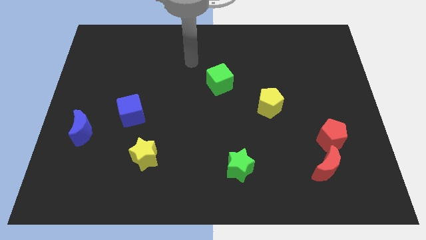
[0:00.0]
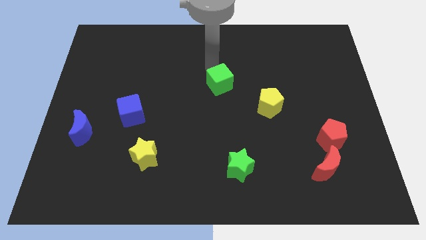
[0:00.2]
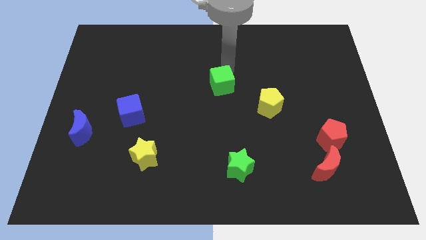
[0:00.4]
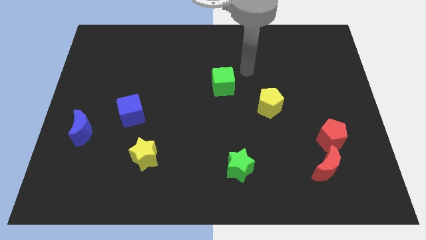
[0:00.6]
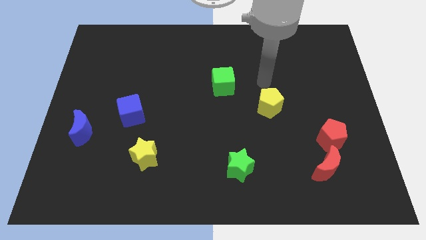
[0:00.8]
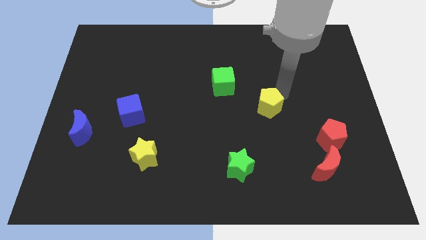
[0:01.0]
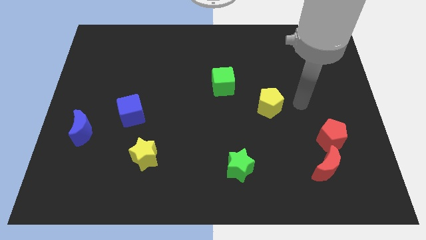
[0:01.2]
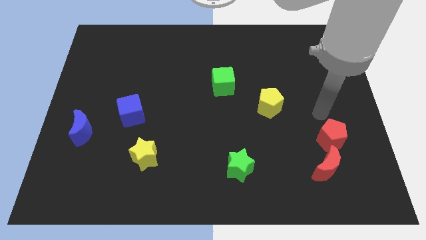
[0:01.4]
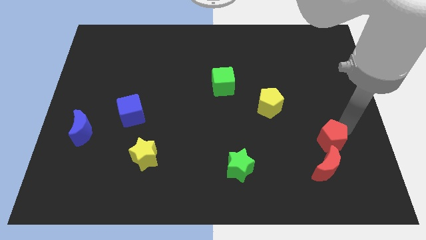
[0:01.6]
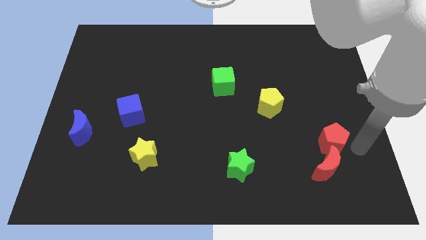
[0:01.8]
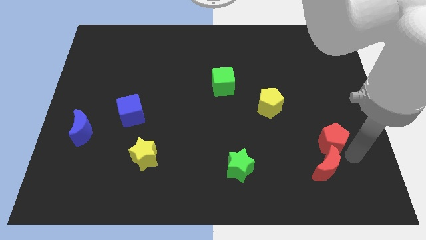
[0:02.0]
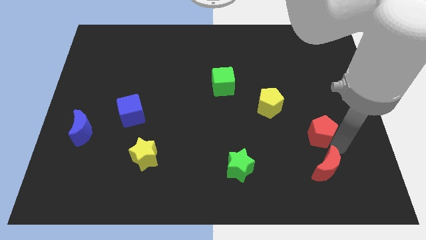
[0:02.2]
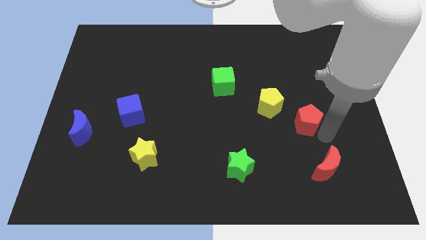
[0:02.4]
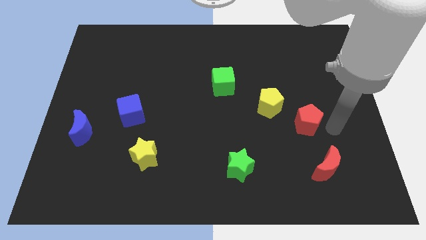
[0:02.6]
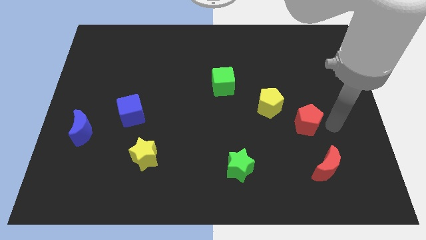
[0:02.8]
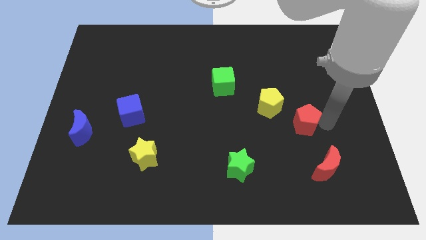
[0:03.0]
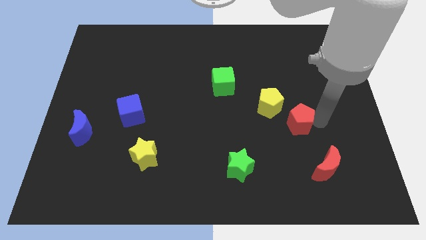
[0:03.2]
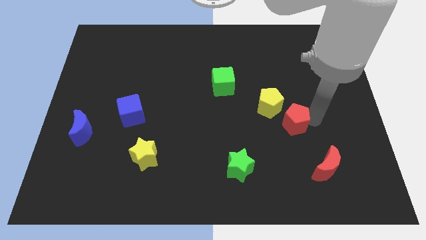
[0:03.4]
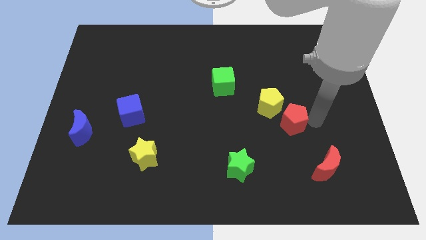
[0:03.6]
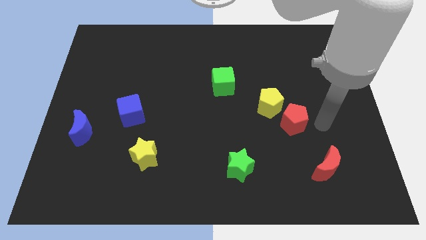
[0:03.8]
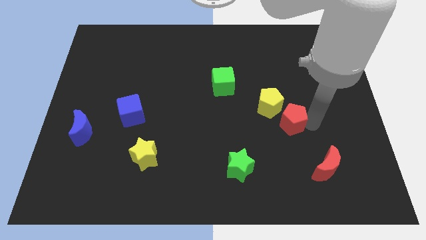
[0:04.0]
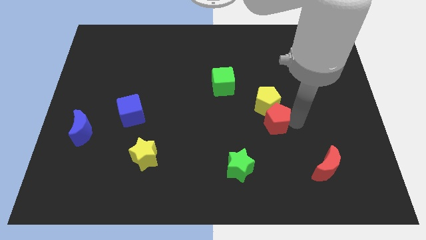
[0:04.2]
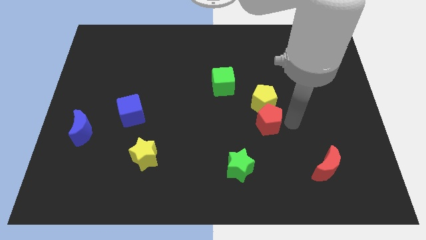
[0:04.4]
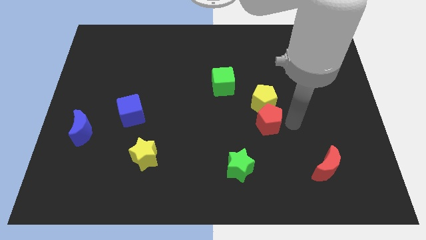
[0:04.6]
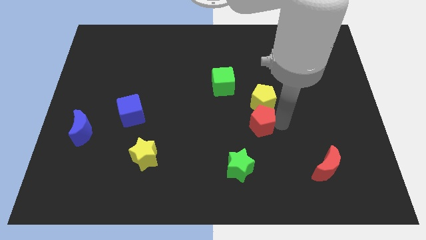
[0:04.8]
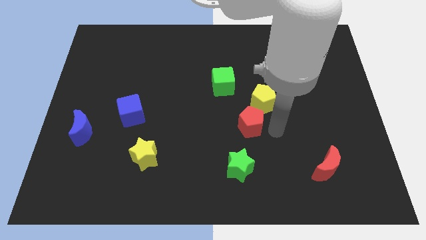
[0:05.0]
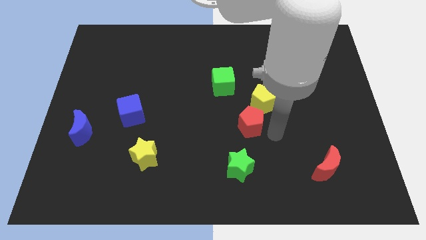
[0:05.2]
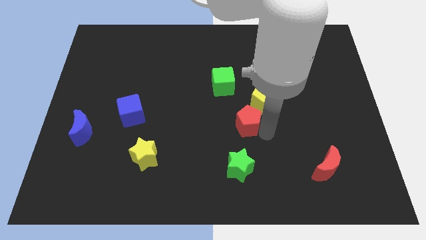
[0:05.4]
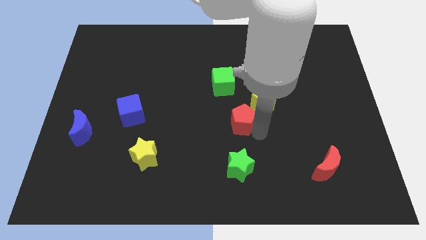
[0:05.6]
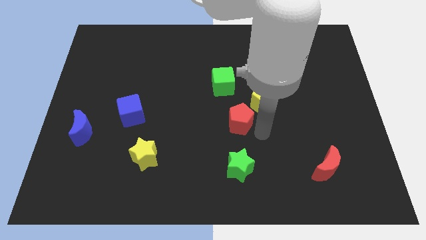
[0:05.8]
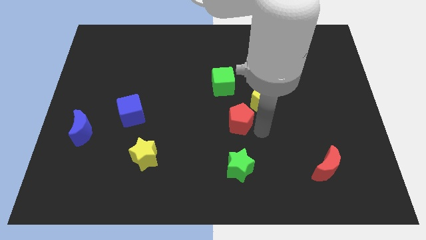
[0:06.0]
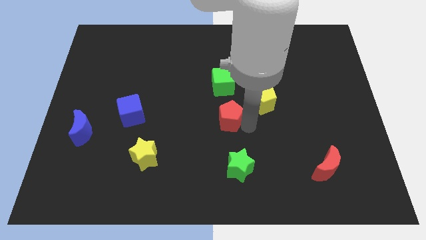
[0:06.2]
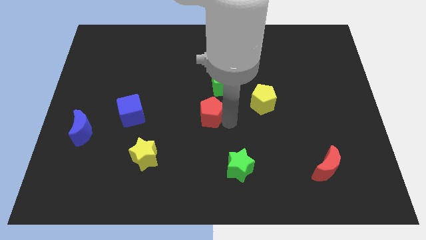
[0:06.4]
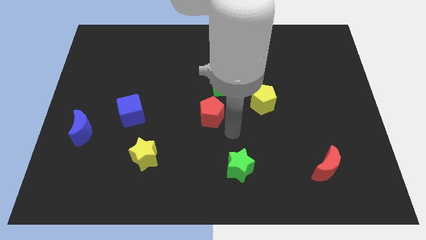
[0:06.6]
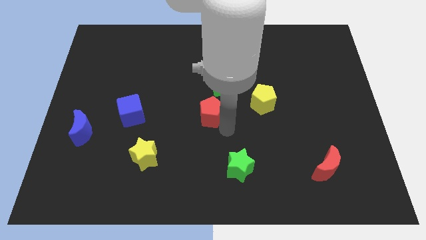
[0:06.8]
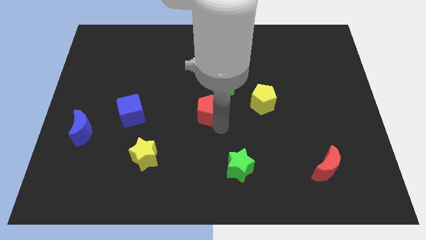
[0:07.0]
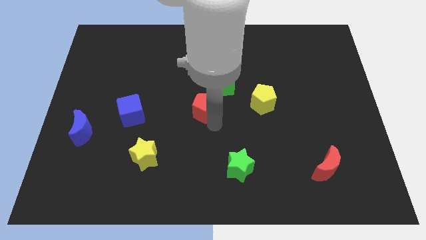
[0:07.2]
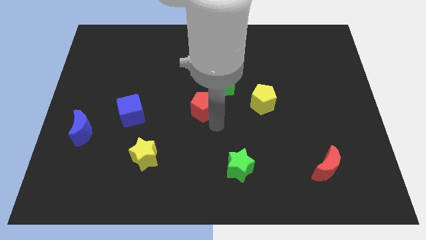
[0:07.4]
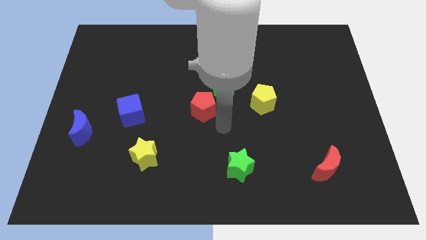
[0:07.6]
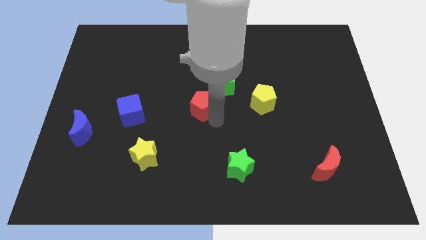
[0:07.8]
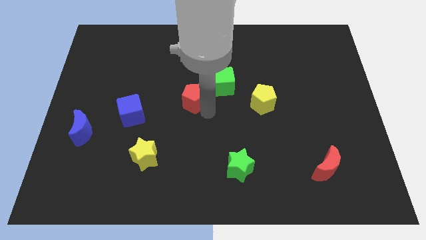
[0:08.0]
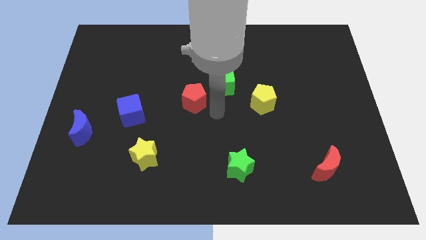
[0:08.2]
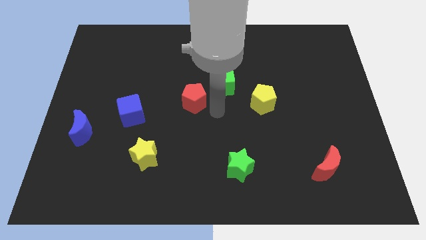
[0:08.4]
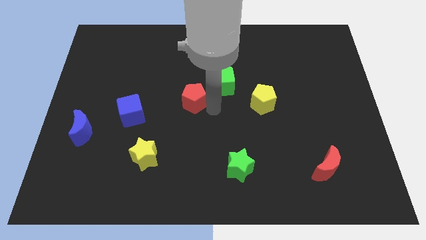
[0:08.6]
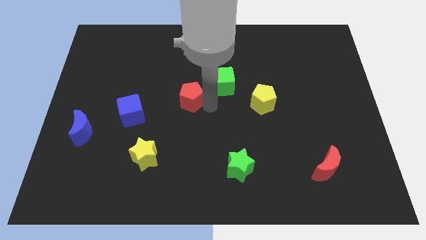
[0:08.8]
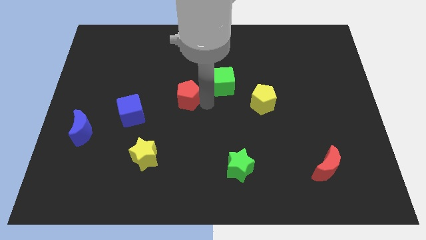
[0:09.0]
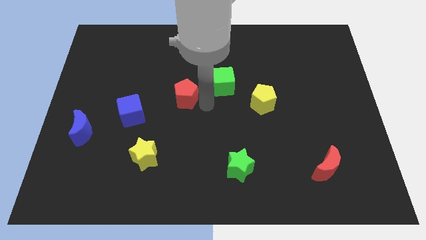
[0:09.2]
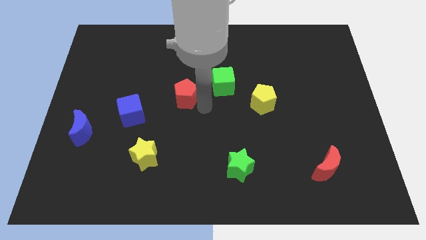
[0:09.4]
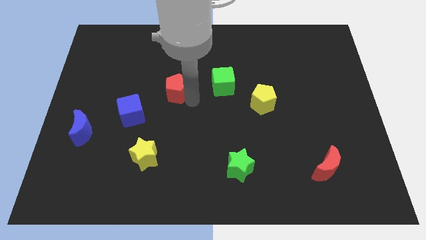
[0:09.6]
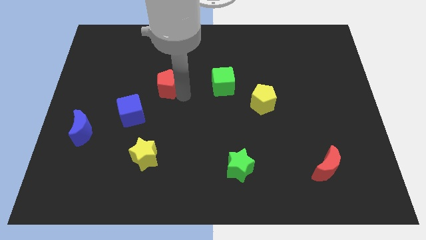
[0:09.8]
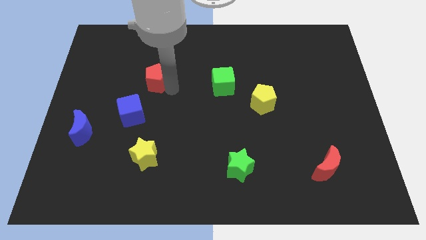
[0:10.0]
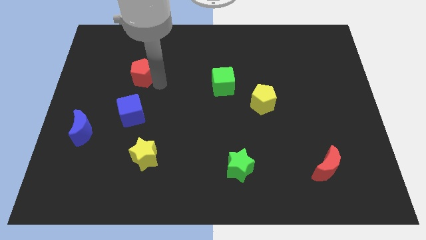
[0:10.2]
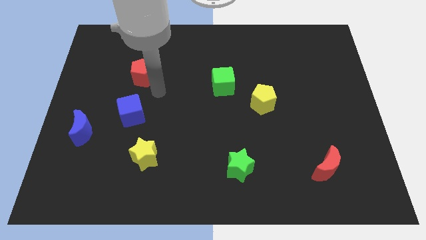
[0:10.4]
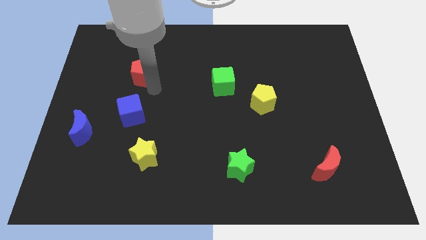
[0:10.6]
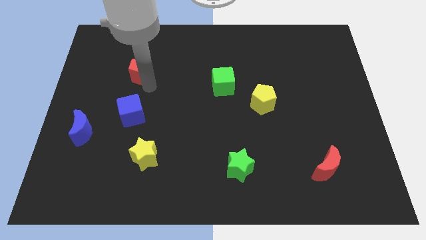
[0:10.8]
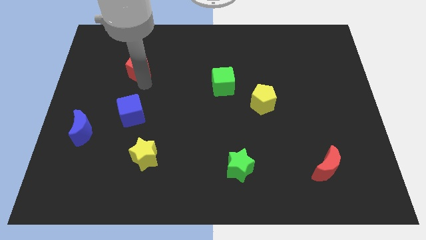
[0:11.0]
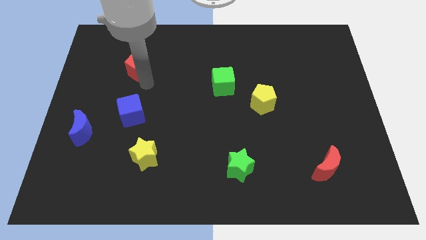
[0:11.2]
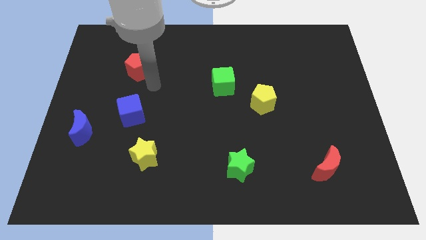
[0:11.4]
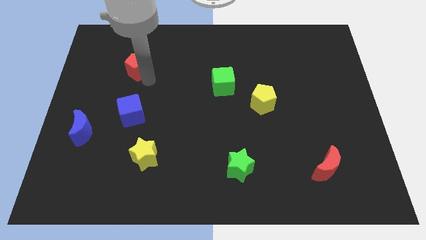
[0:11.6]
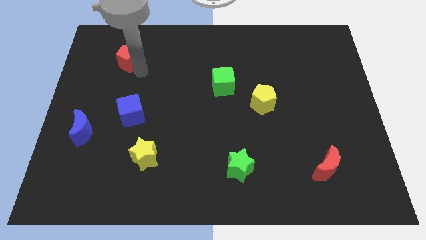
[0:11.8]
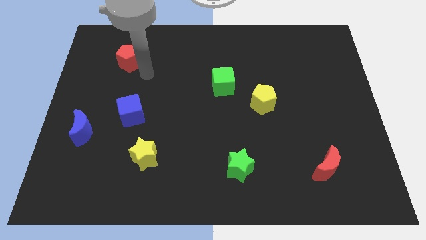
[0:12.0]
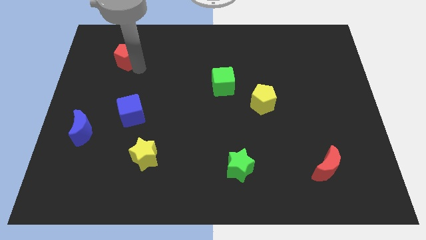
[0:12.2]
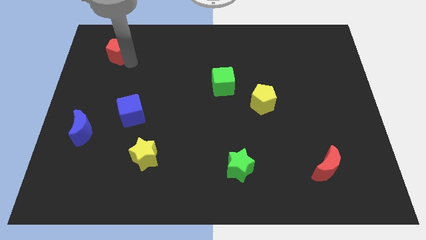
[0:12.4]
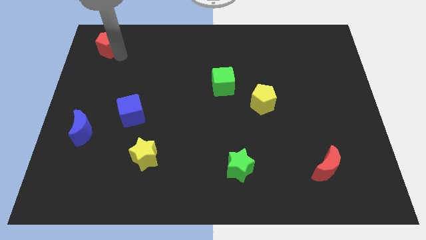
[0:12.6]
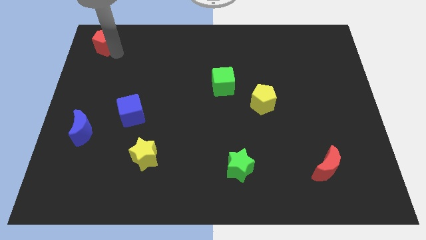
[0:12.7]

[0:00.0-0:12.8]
put the red pentagon to the top left

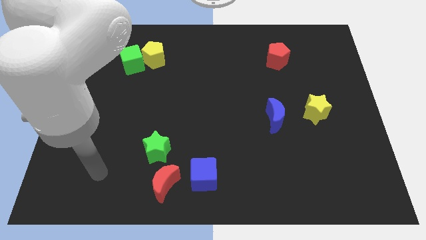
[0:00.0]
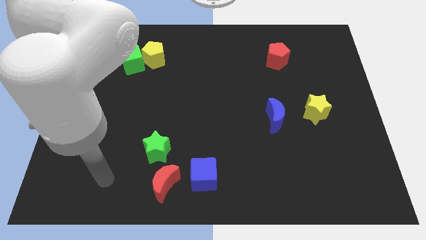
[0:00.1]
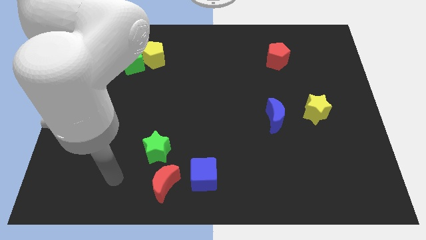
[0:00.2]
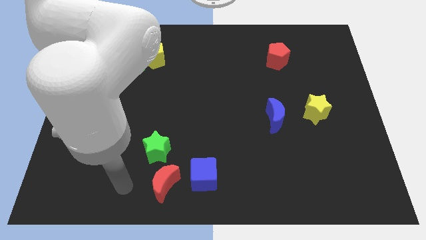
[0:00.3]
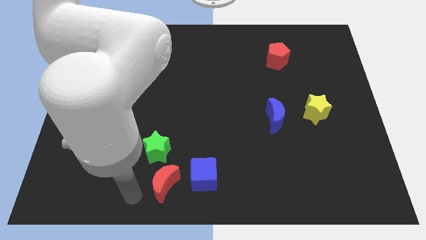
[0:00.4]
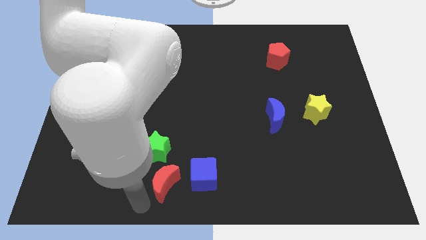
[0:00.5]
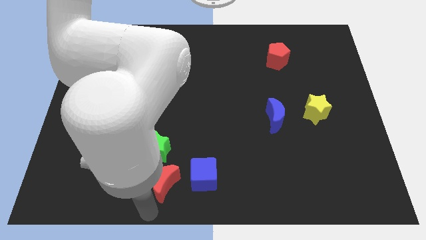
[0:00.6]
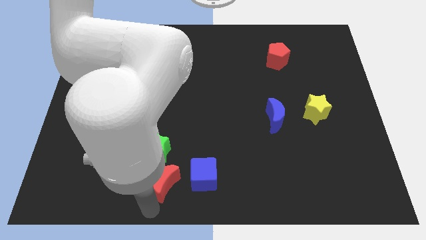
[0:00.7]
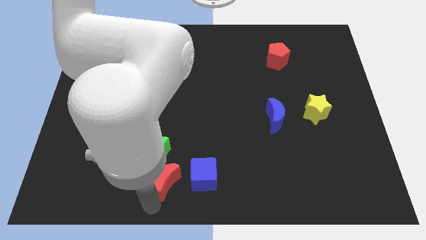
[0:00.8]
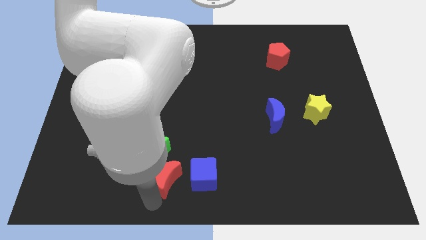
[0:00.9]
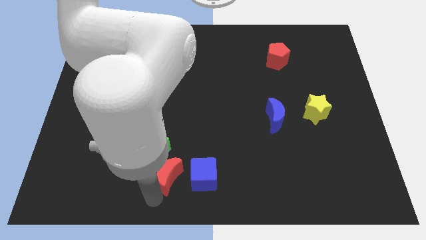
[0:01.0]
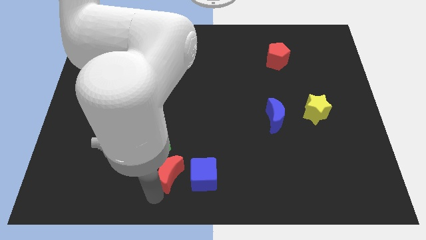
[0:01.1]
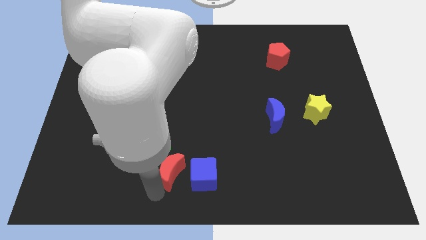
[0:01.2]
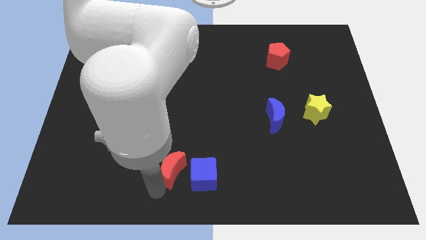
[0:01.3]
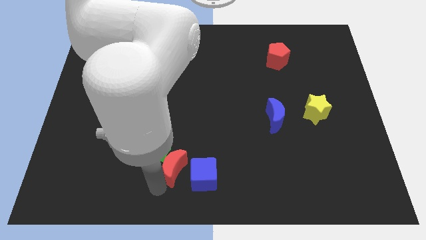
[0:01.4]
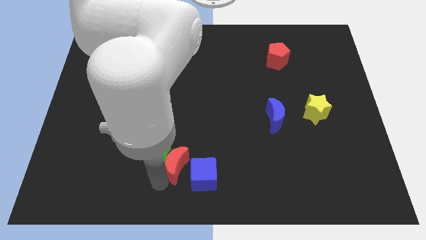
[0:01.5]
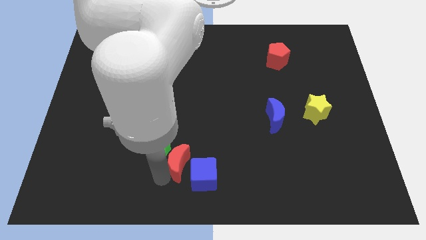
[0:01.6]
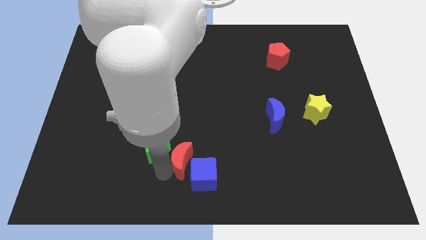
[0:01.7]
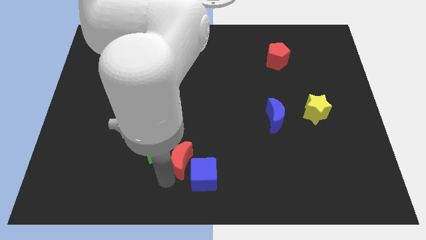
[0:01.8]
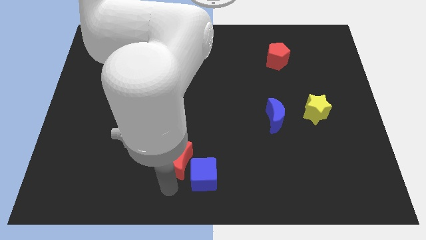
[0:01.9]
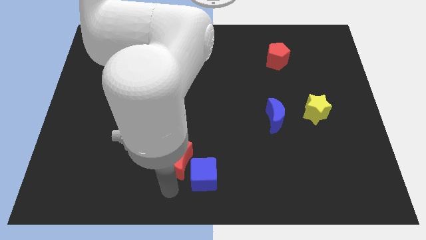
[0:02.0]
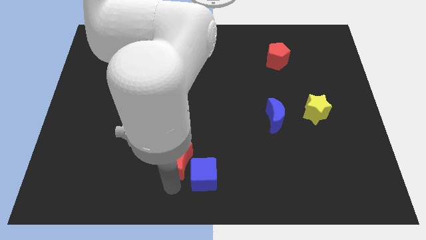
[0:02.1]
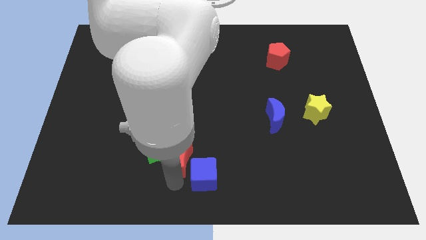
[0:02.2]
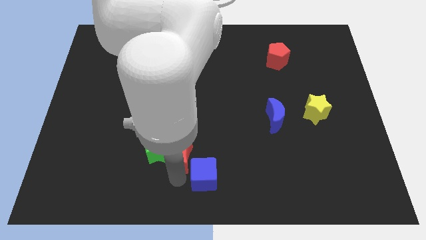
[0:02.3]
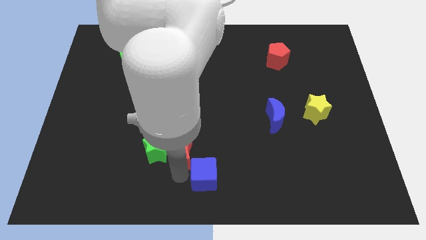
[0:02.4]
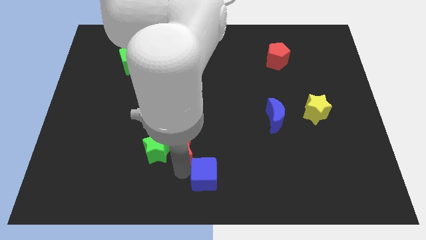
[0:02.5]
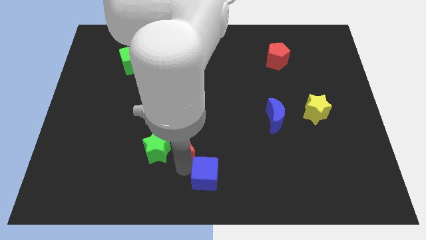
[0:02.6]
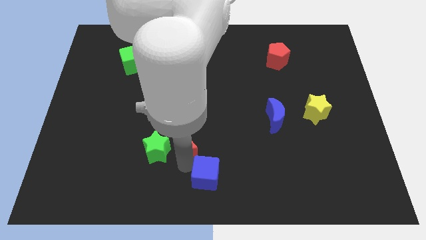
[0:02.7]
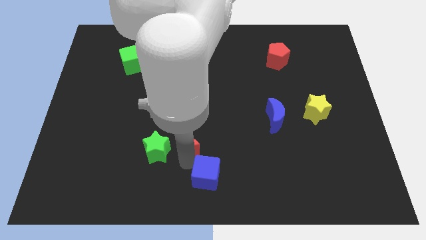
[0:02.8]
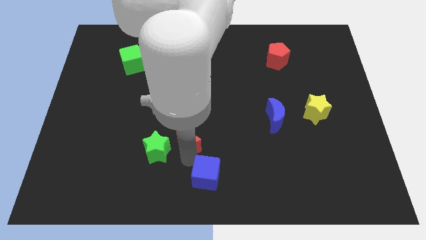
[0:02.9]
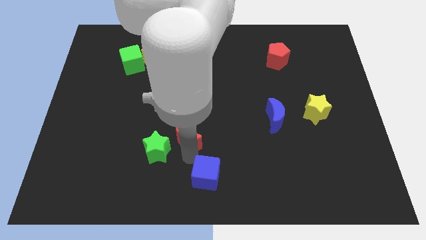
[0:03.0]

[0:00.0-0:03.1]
move the red moon to the center
